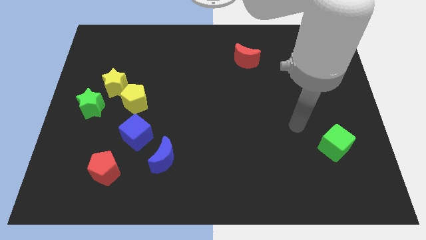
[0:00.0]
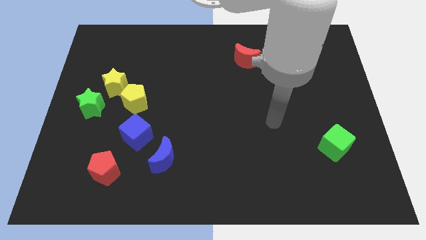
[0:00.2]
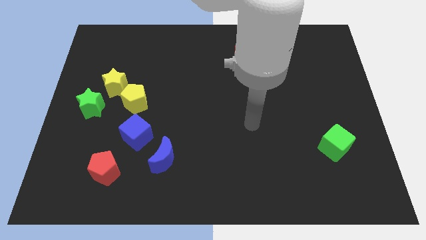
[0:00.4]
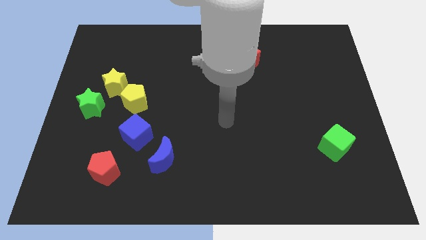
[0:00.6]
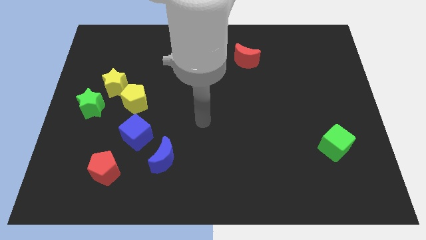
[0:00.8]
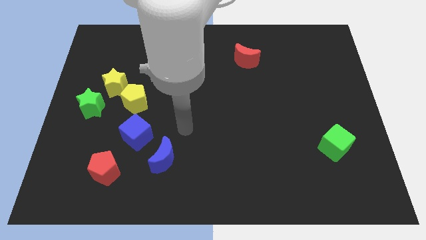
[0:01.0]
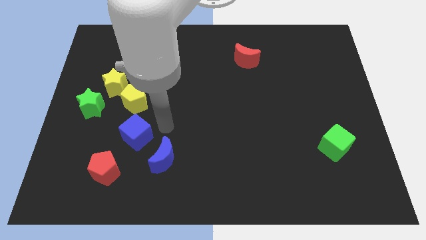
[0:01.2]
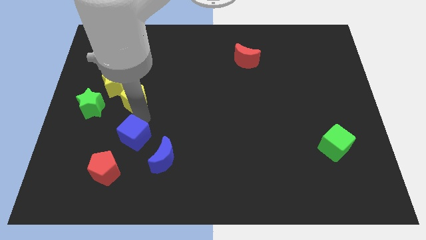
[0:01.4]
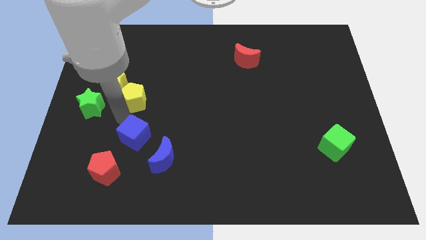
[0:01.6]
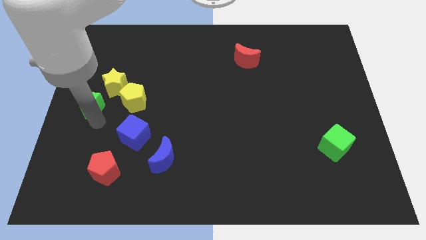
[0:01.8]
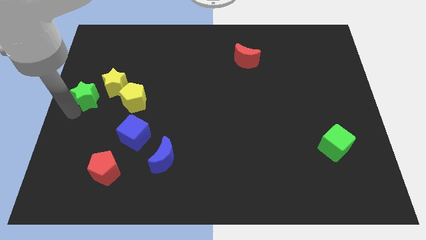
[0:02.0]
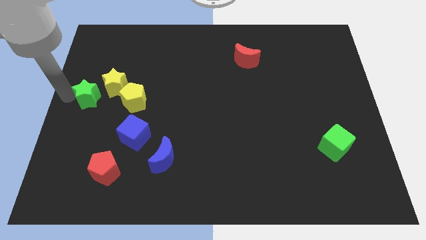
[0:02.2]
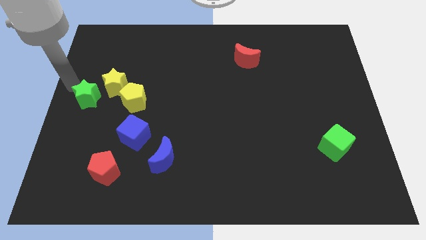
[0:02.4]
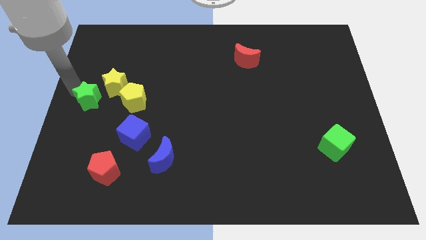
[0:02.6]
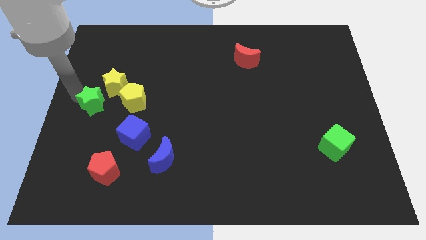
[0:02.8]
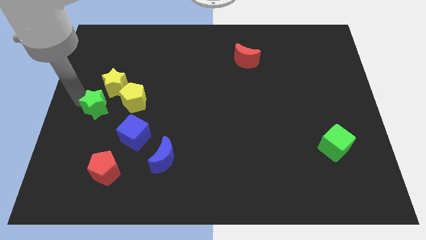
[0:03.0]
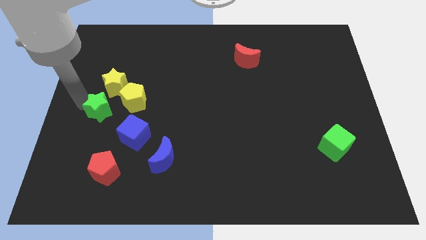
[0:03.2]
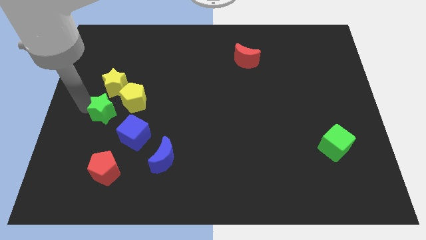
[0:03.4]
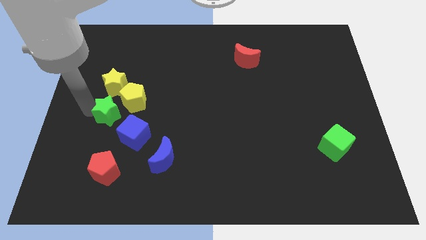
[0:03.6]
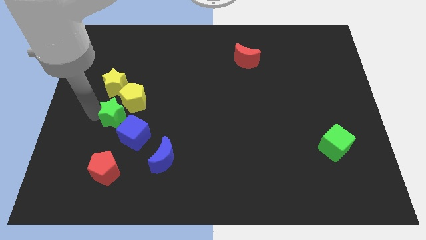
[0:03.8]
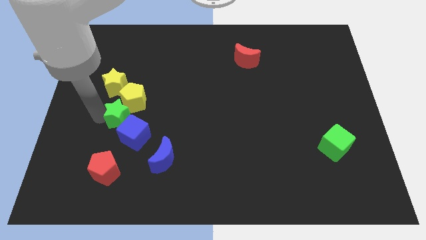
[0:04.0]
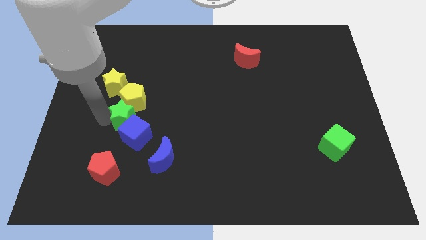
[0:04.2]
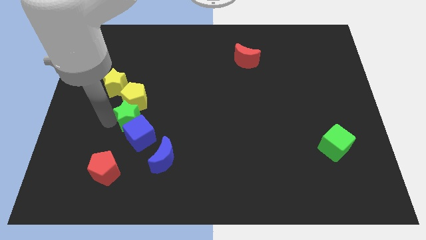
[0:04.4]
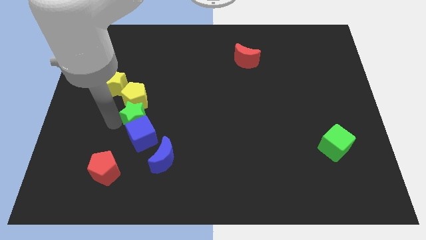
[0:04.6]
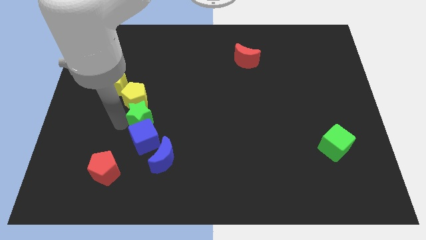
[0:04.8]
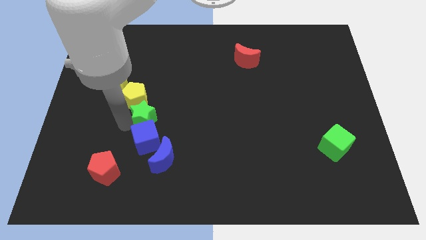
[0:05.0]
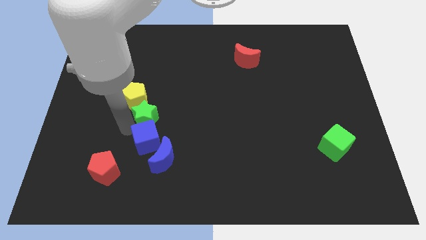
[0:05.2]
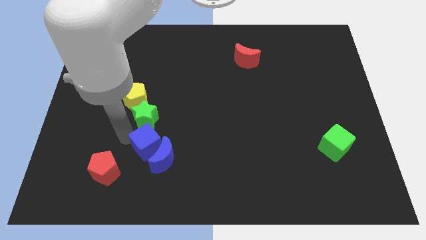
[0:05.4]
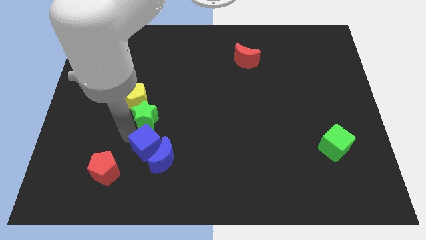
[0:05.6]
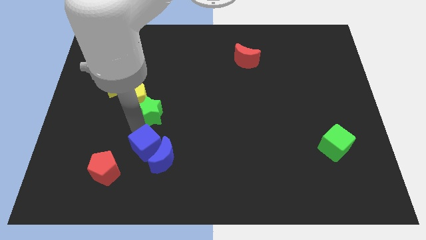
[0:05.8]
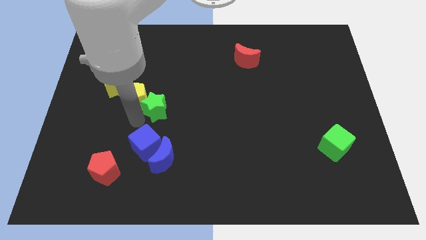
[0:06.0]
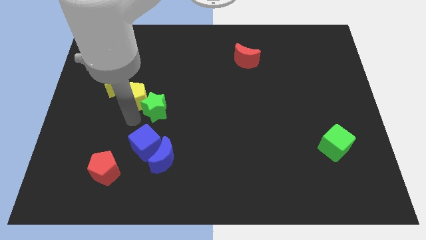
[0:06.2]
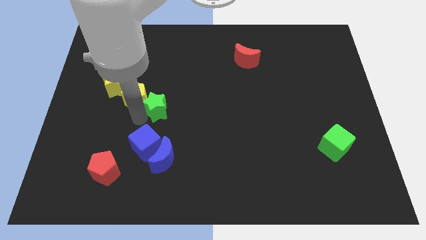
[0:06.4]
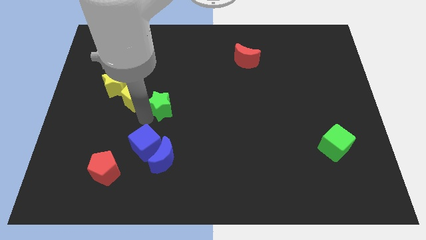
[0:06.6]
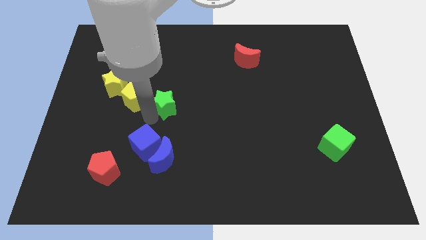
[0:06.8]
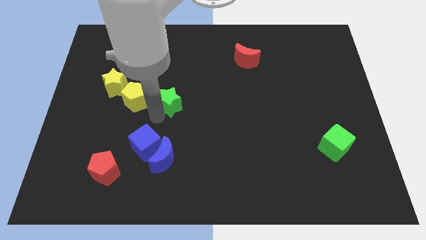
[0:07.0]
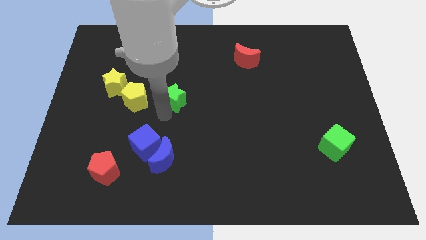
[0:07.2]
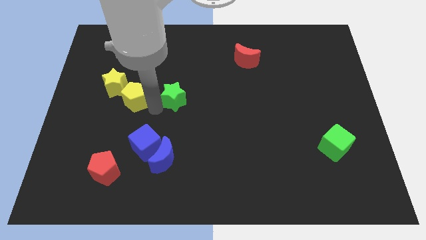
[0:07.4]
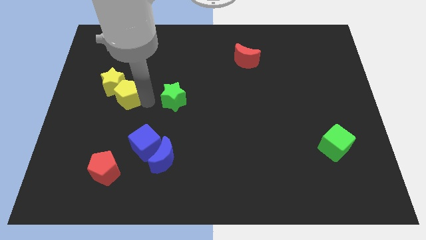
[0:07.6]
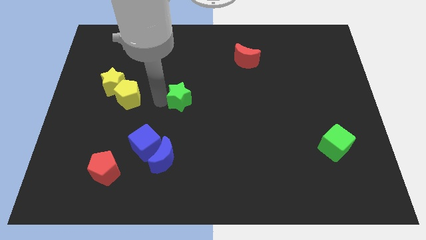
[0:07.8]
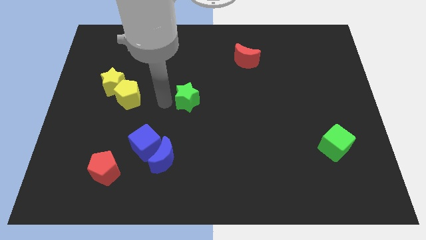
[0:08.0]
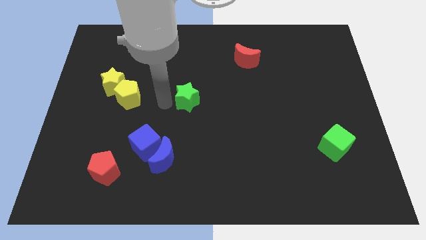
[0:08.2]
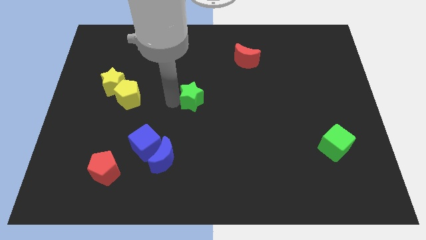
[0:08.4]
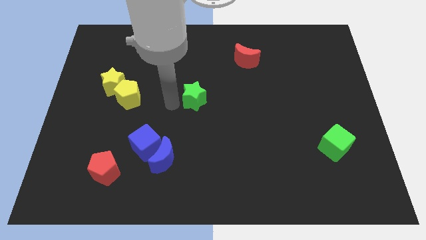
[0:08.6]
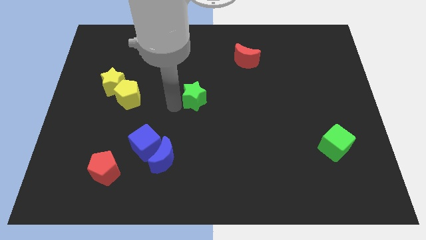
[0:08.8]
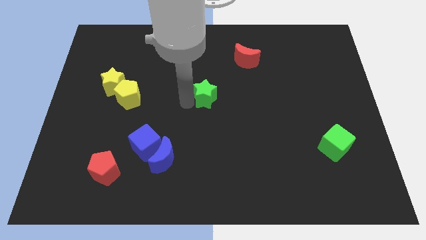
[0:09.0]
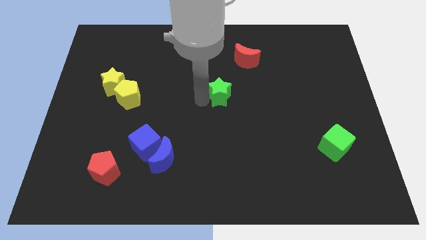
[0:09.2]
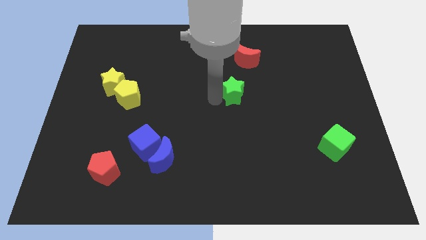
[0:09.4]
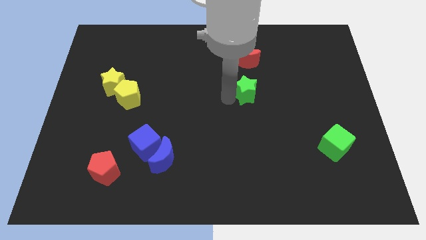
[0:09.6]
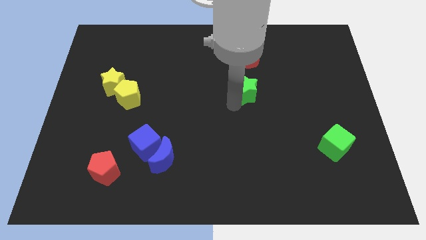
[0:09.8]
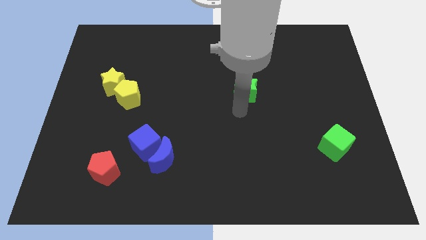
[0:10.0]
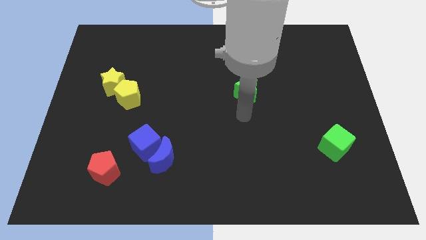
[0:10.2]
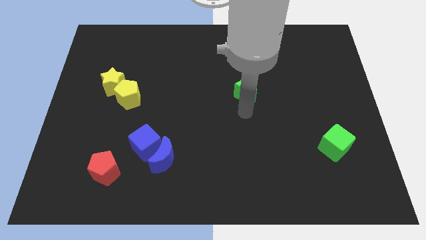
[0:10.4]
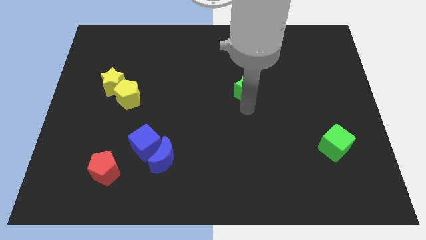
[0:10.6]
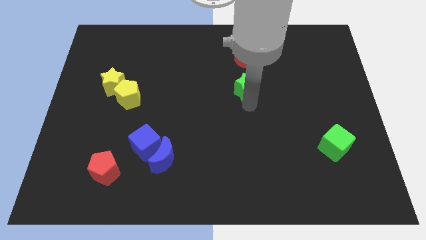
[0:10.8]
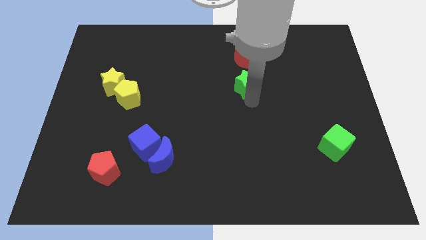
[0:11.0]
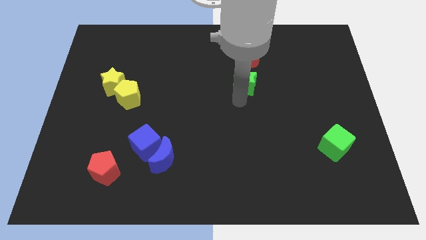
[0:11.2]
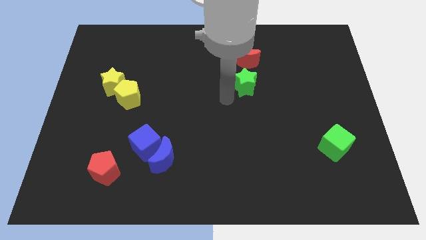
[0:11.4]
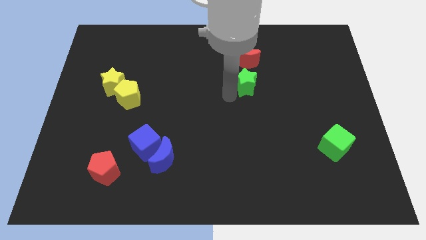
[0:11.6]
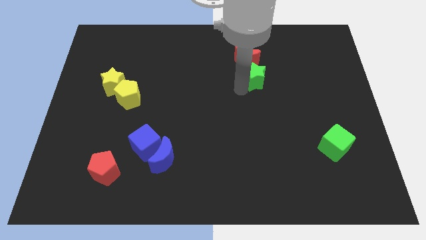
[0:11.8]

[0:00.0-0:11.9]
put the green star to the bottom right side of the red moon
